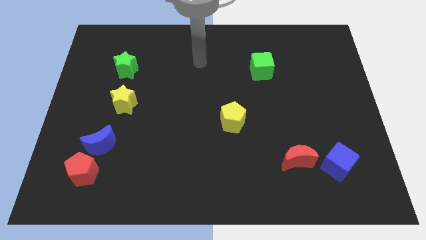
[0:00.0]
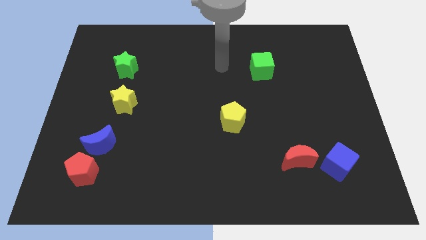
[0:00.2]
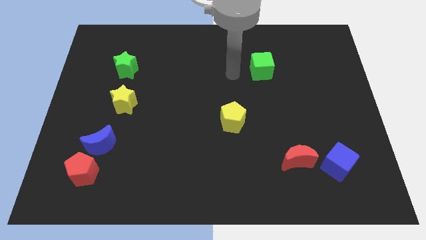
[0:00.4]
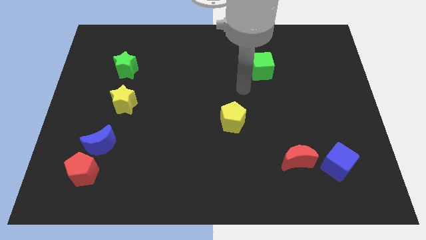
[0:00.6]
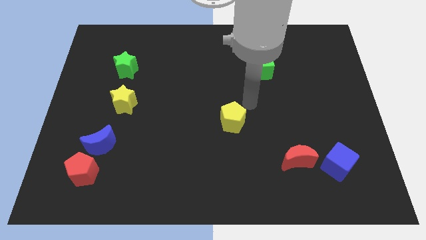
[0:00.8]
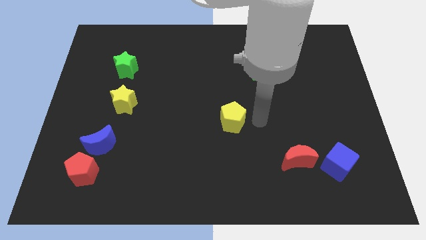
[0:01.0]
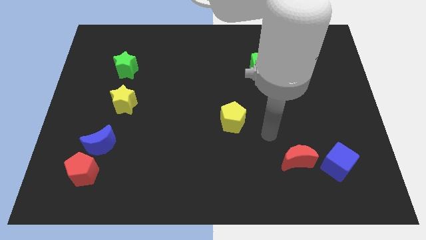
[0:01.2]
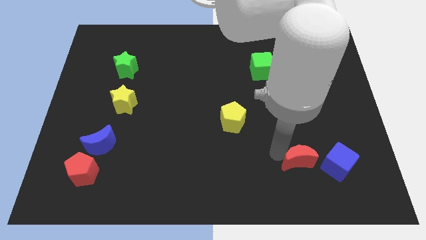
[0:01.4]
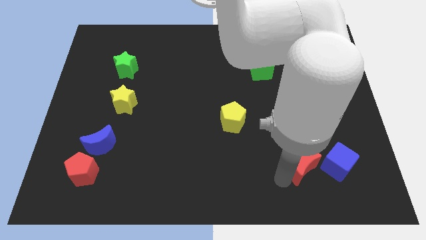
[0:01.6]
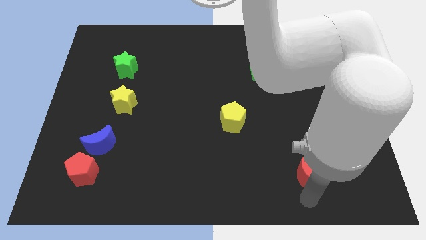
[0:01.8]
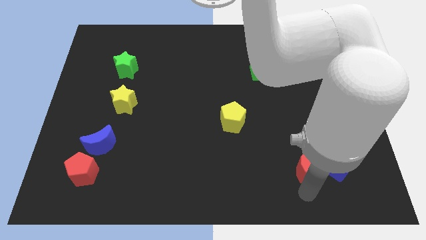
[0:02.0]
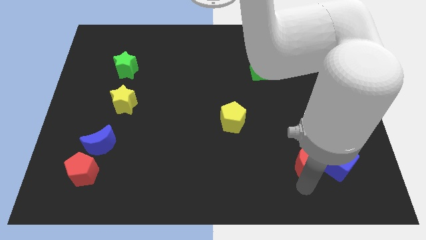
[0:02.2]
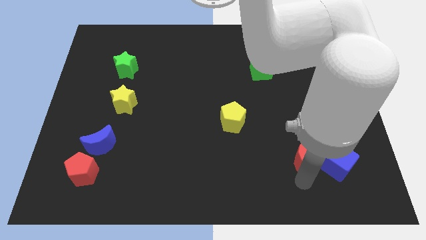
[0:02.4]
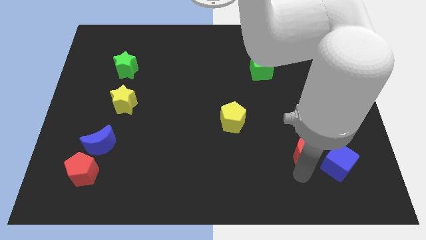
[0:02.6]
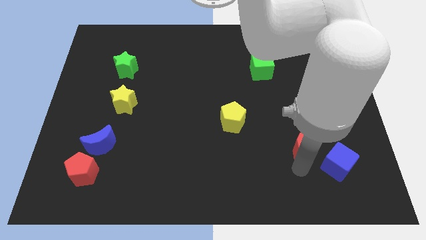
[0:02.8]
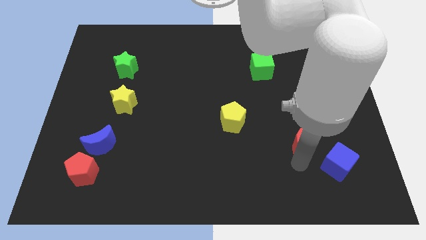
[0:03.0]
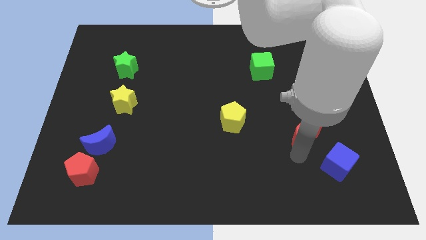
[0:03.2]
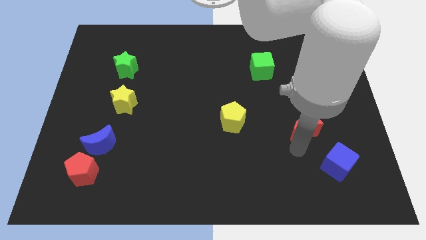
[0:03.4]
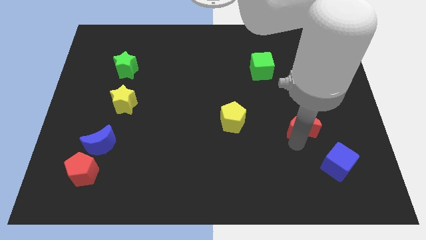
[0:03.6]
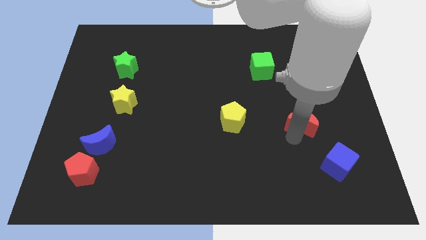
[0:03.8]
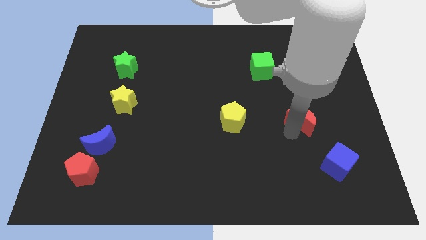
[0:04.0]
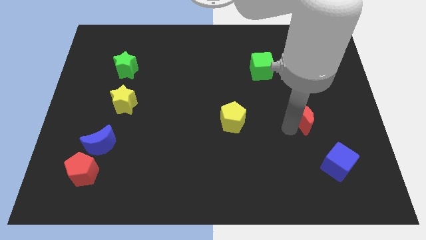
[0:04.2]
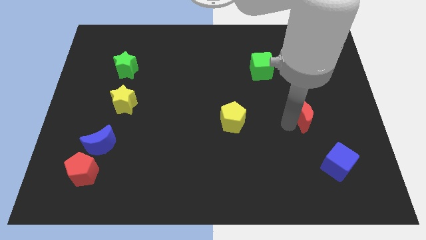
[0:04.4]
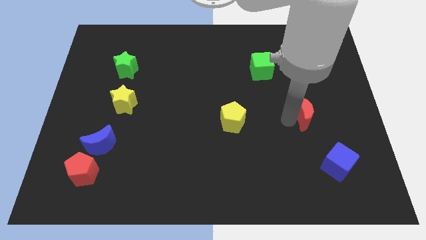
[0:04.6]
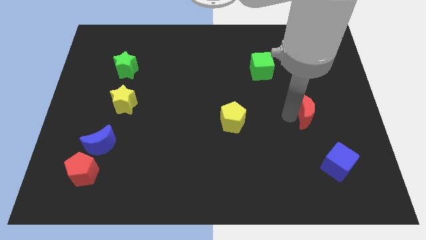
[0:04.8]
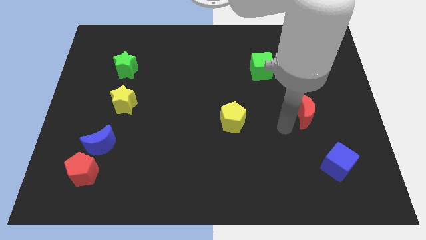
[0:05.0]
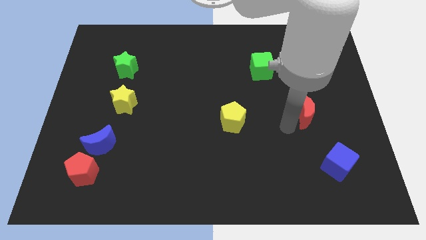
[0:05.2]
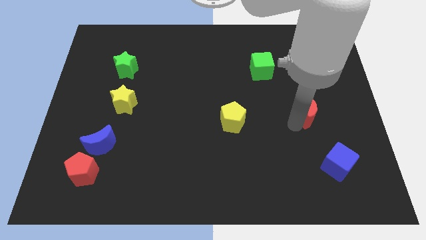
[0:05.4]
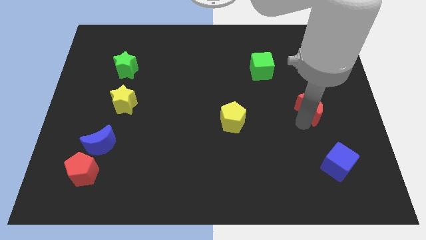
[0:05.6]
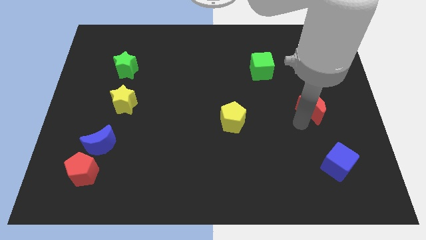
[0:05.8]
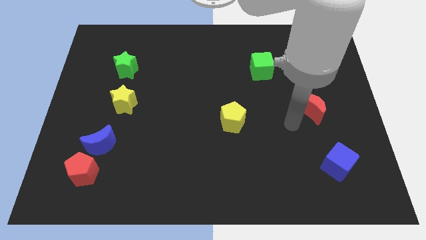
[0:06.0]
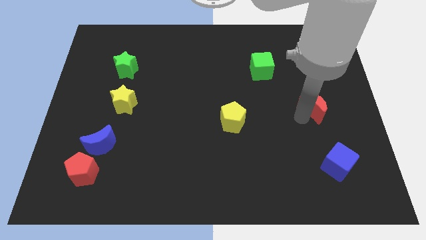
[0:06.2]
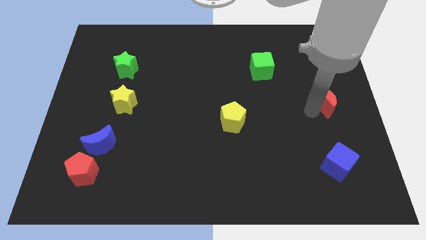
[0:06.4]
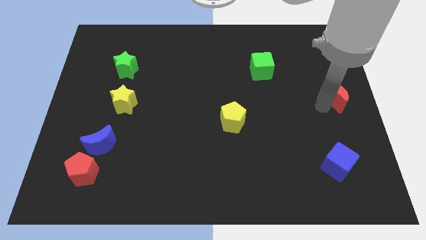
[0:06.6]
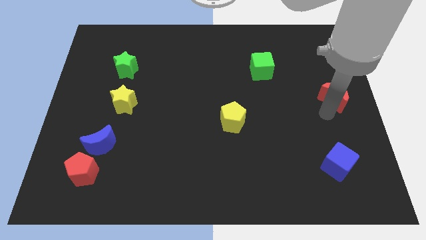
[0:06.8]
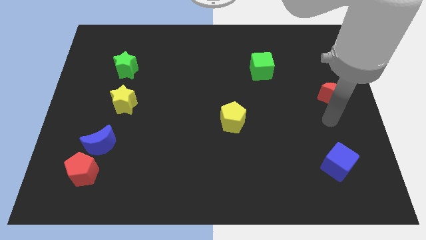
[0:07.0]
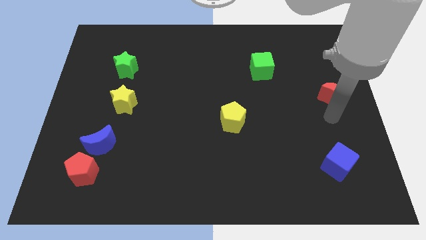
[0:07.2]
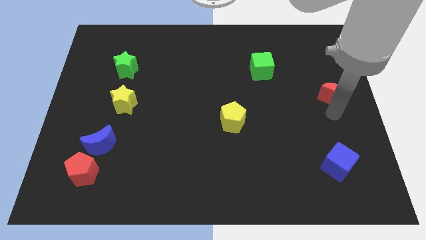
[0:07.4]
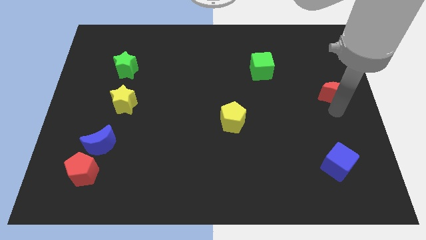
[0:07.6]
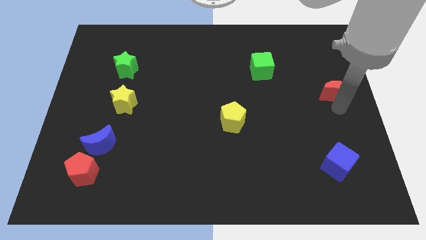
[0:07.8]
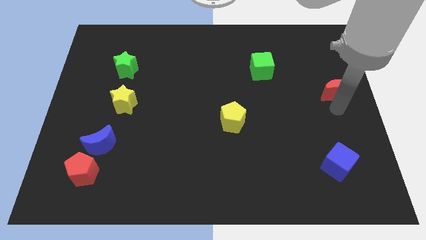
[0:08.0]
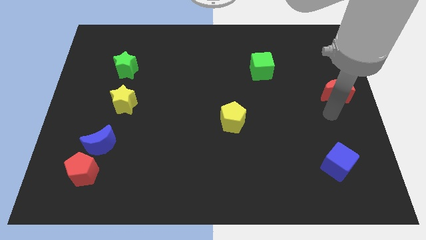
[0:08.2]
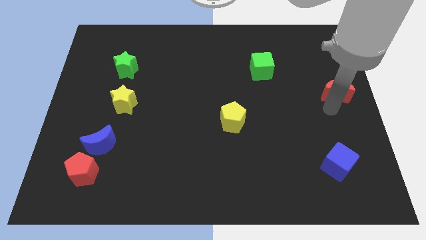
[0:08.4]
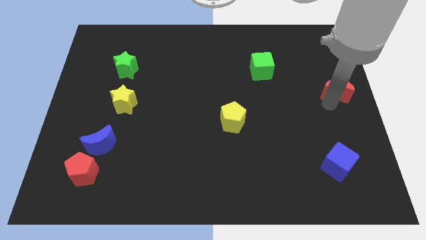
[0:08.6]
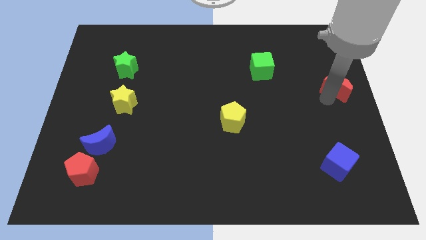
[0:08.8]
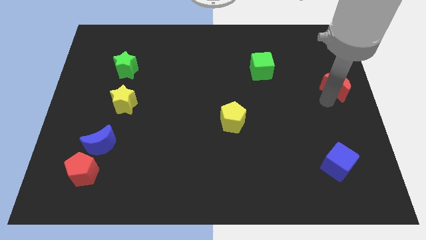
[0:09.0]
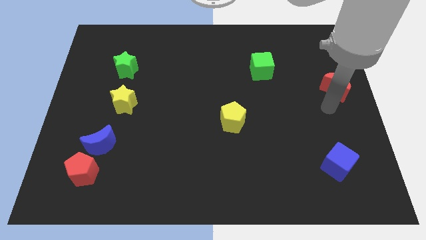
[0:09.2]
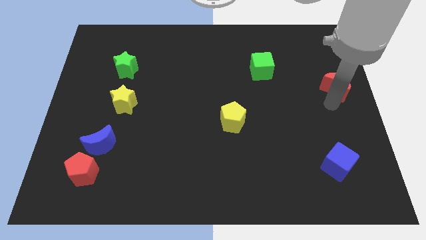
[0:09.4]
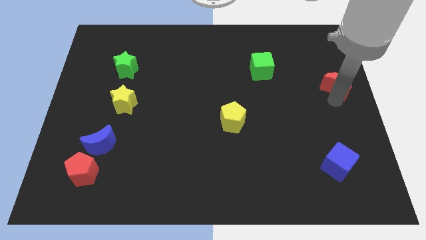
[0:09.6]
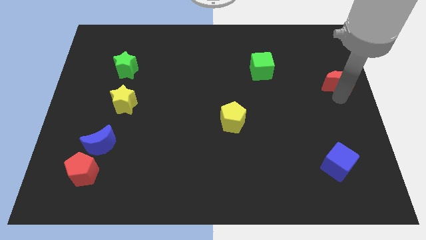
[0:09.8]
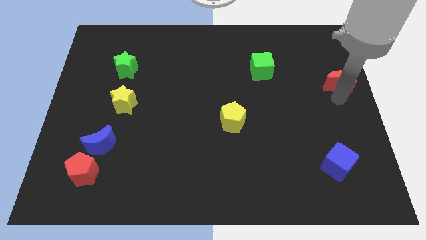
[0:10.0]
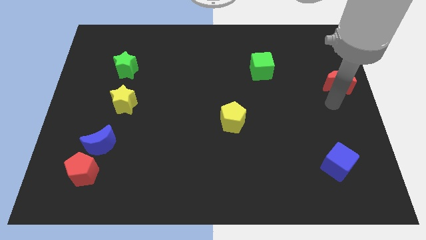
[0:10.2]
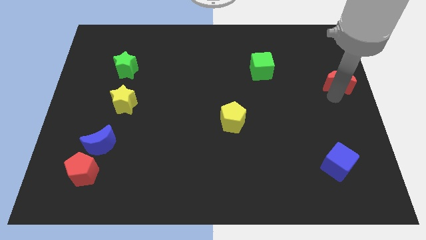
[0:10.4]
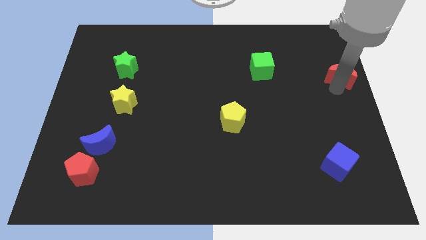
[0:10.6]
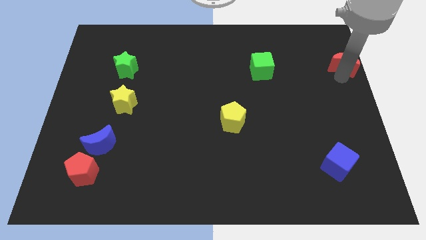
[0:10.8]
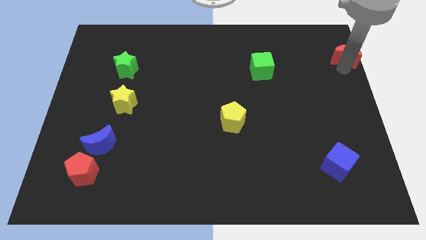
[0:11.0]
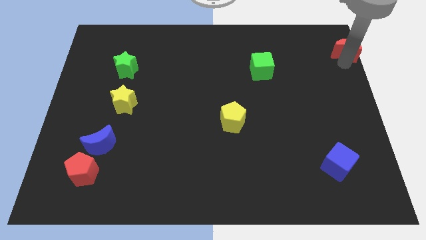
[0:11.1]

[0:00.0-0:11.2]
move the red moon to the top right of the board

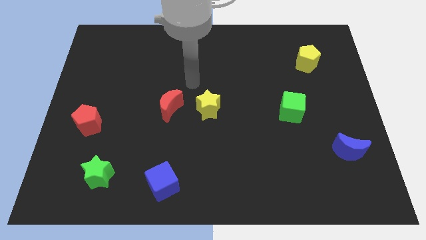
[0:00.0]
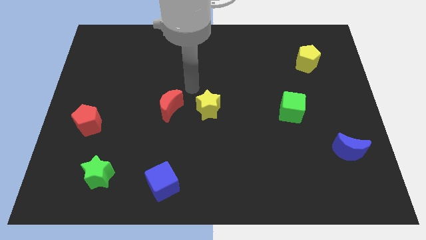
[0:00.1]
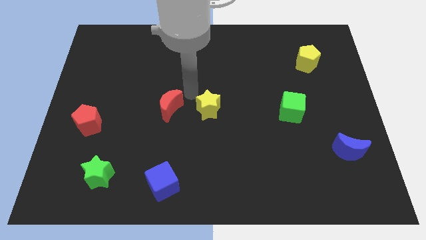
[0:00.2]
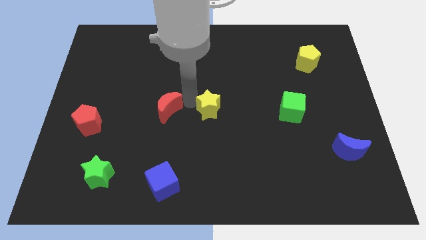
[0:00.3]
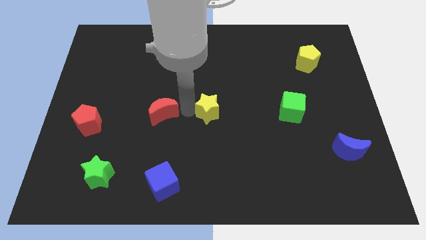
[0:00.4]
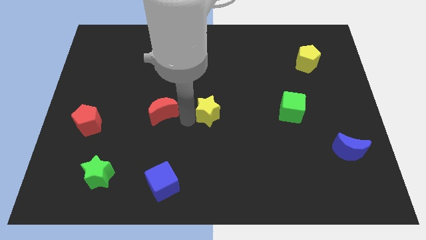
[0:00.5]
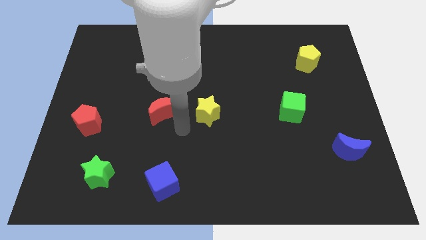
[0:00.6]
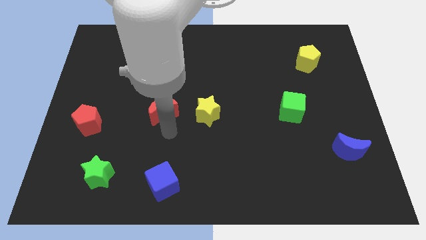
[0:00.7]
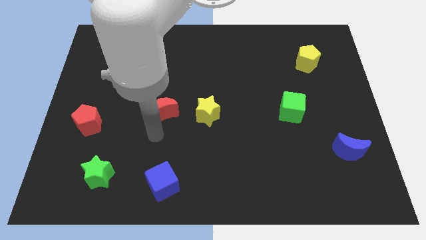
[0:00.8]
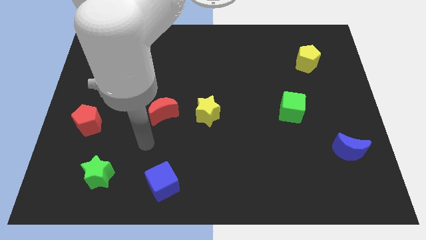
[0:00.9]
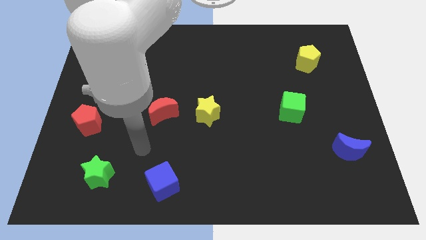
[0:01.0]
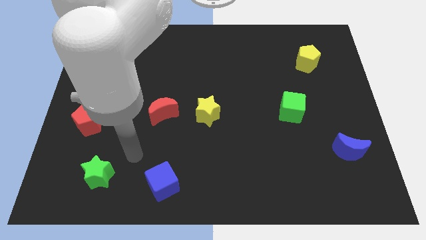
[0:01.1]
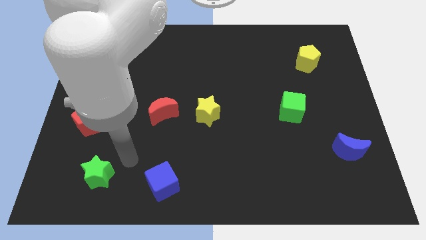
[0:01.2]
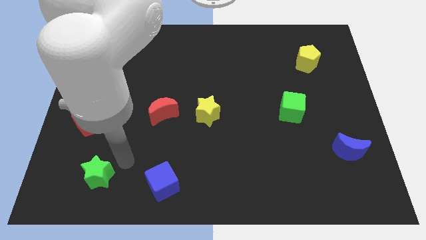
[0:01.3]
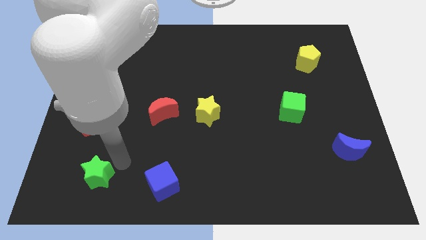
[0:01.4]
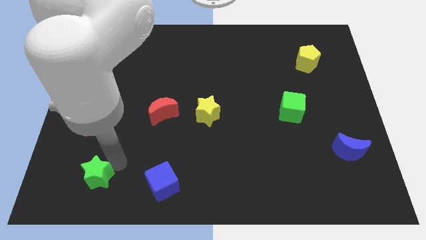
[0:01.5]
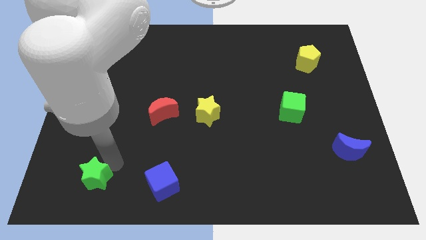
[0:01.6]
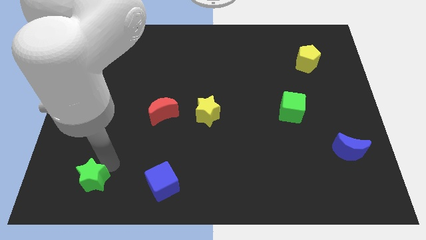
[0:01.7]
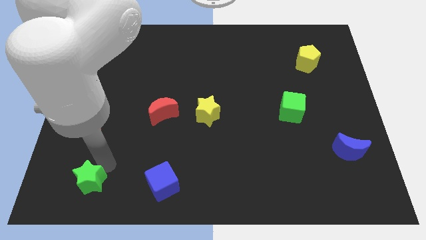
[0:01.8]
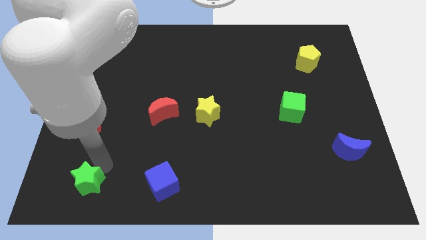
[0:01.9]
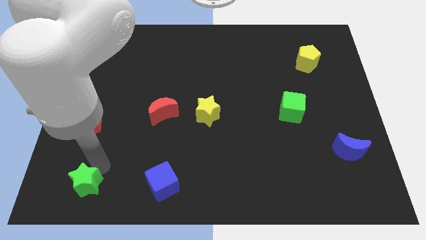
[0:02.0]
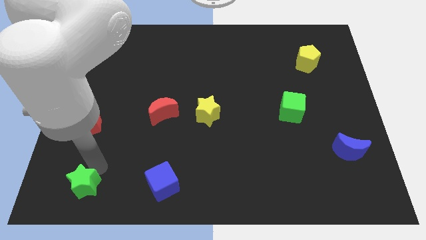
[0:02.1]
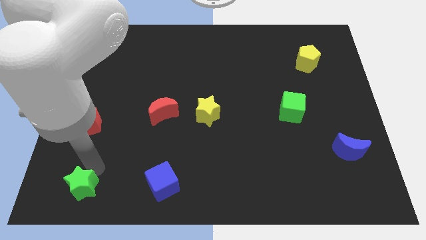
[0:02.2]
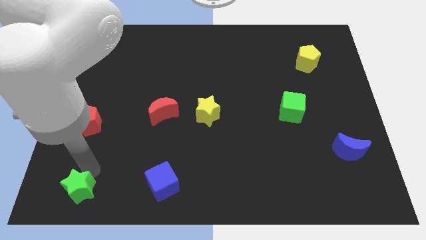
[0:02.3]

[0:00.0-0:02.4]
slide the green star to the bottom left of the board
